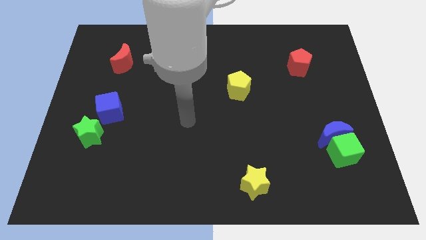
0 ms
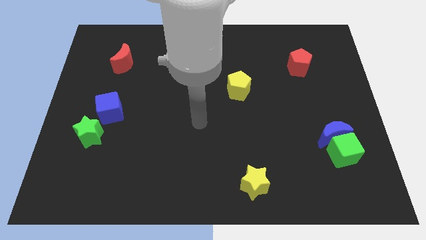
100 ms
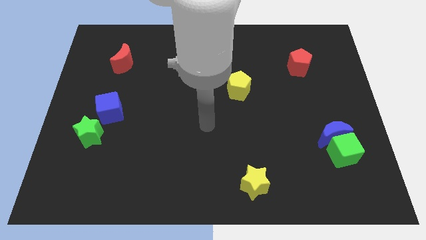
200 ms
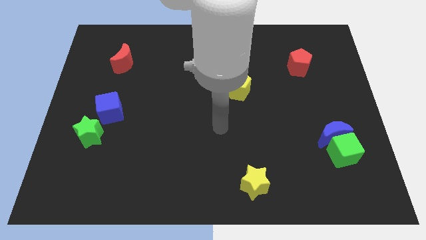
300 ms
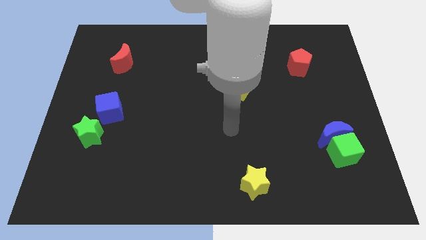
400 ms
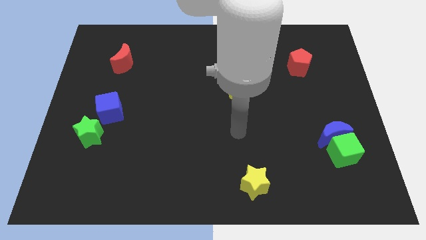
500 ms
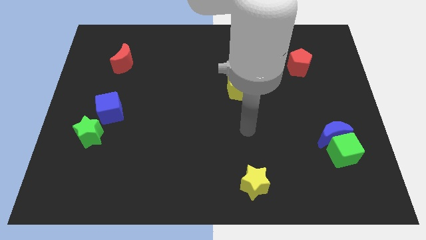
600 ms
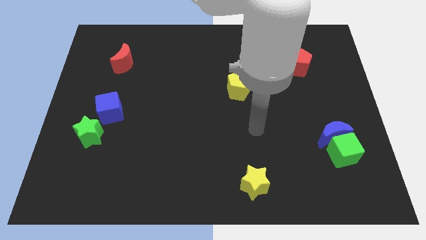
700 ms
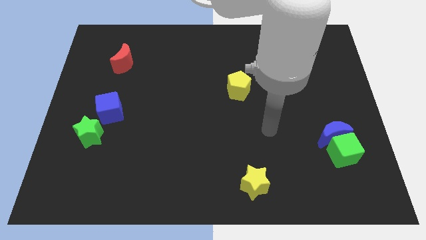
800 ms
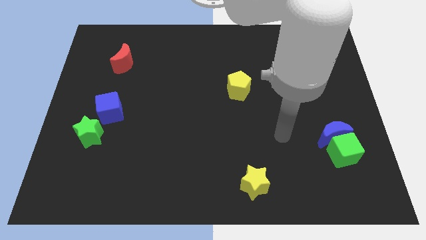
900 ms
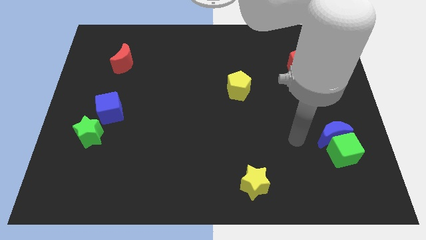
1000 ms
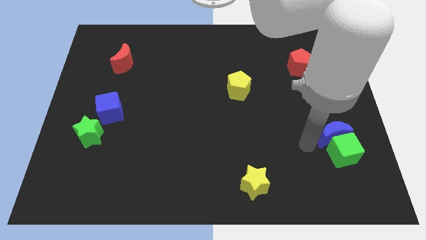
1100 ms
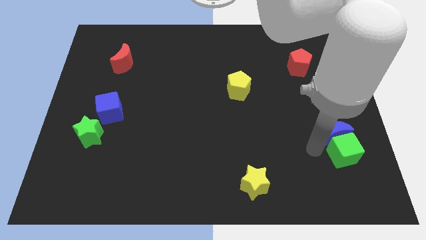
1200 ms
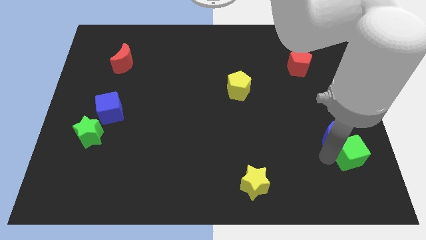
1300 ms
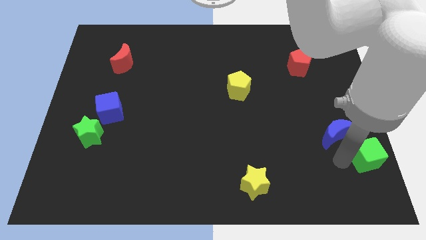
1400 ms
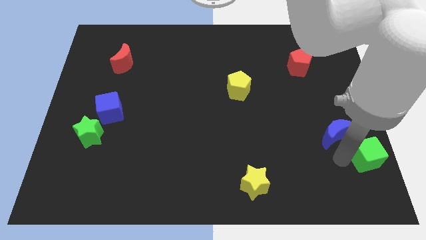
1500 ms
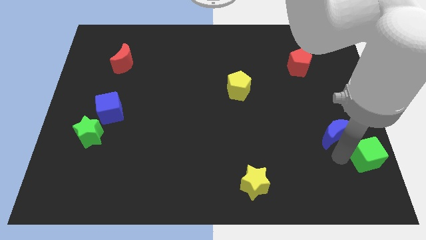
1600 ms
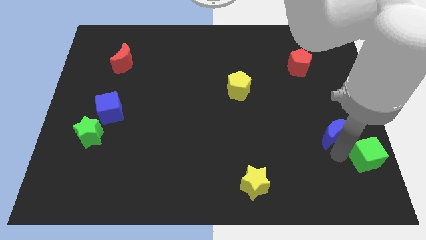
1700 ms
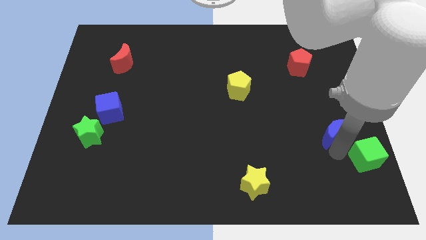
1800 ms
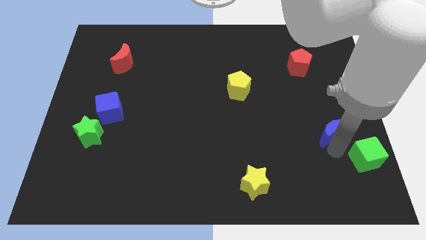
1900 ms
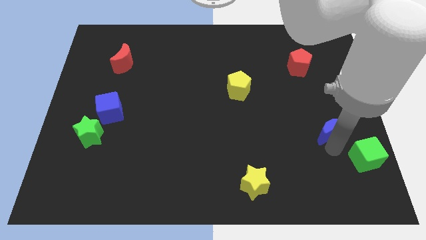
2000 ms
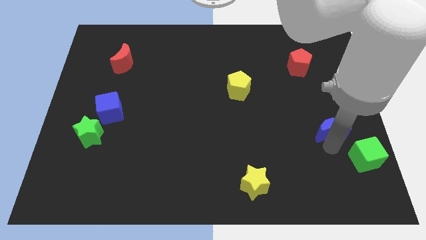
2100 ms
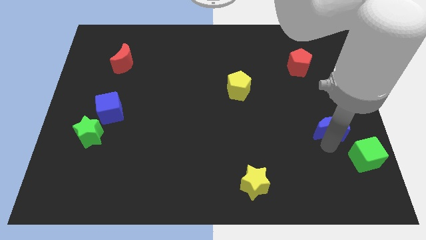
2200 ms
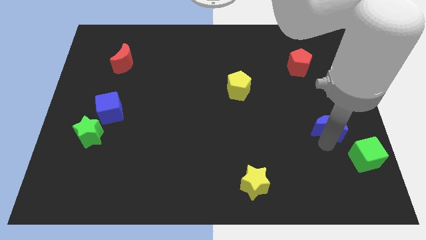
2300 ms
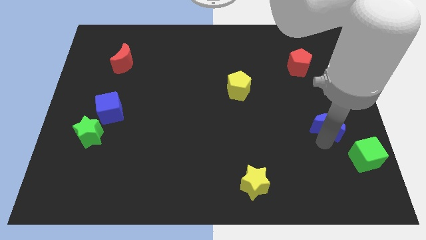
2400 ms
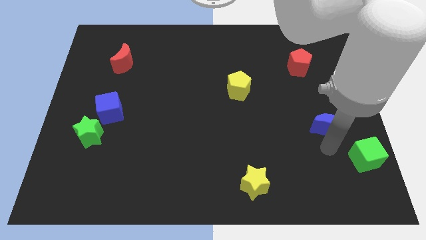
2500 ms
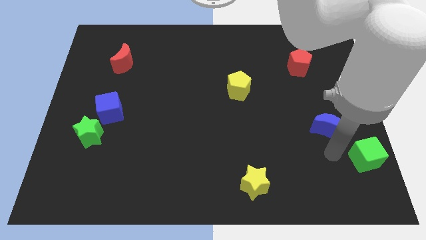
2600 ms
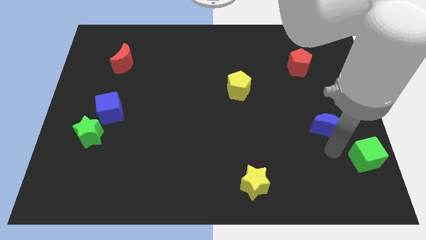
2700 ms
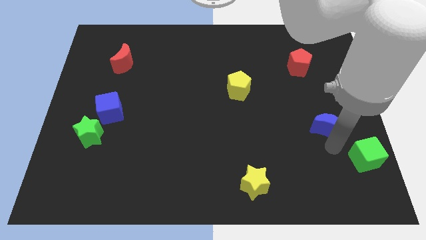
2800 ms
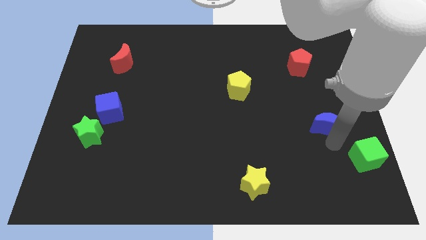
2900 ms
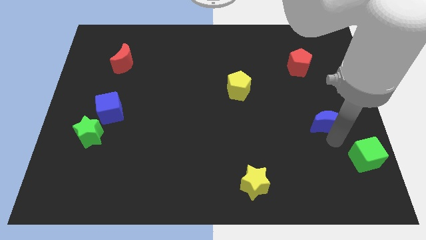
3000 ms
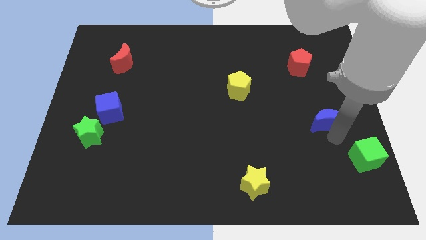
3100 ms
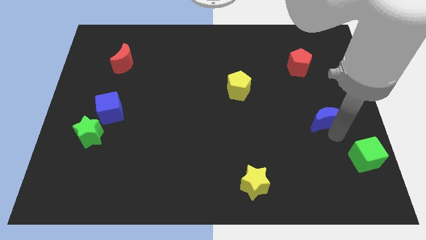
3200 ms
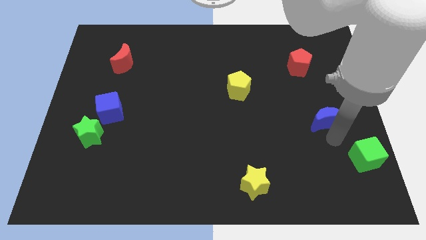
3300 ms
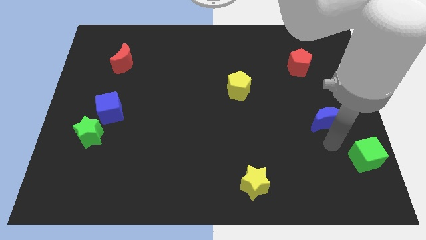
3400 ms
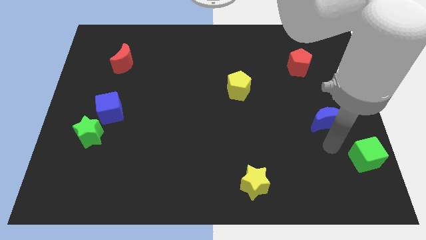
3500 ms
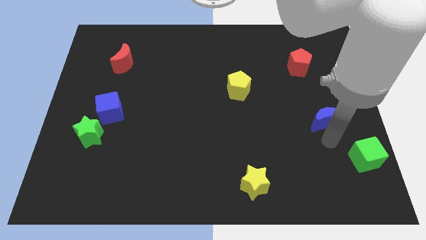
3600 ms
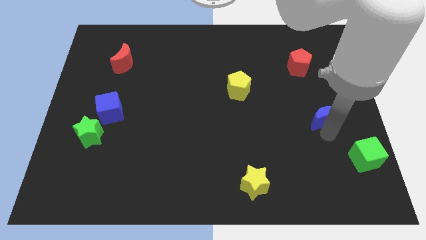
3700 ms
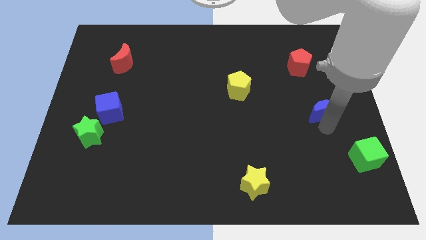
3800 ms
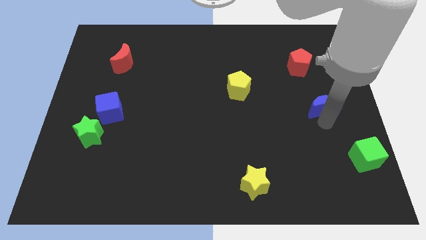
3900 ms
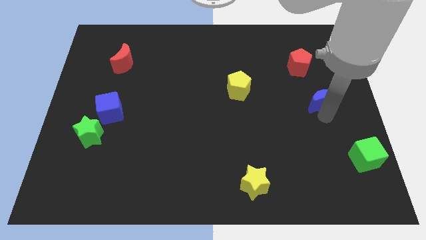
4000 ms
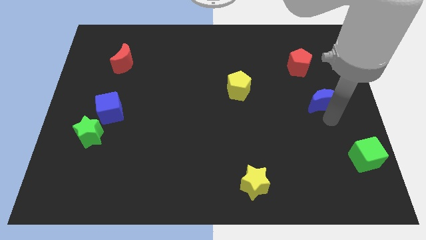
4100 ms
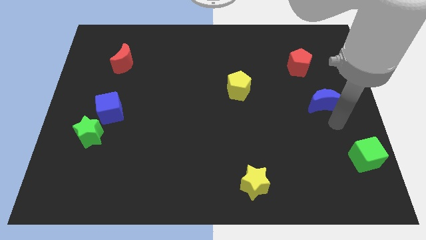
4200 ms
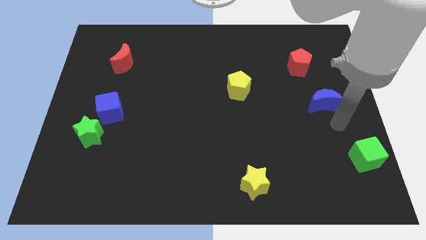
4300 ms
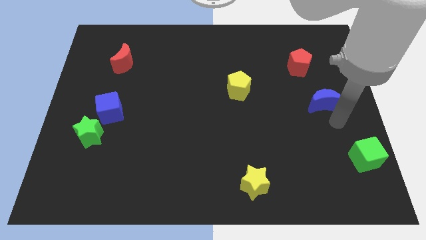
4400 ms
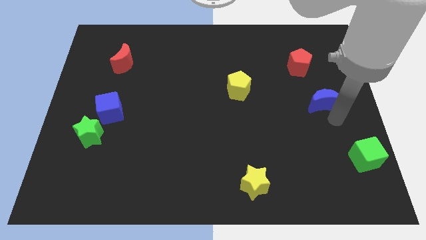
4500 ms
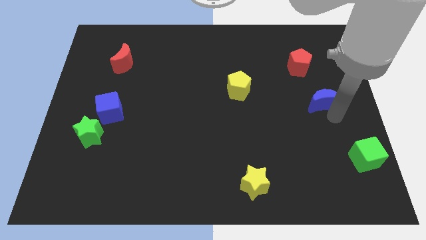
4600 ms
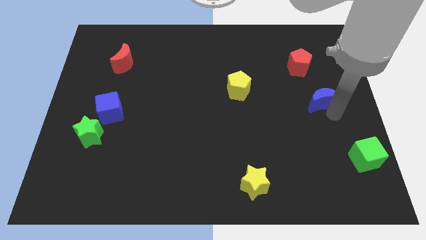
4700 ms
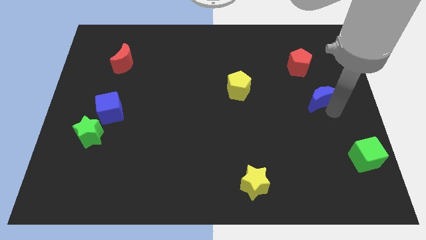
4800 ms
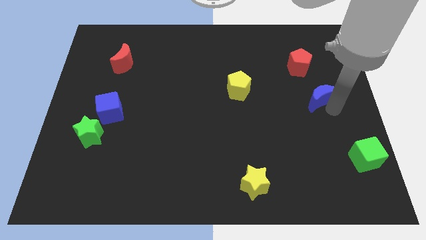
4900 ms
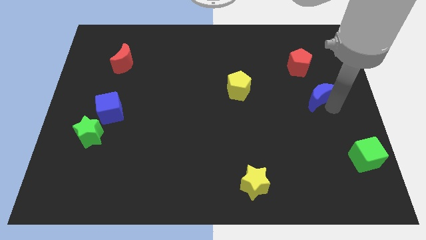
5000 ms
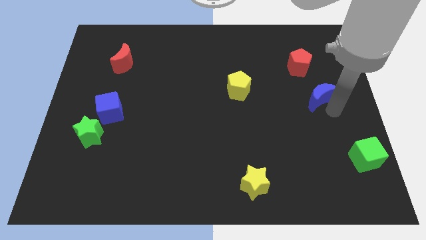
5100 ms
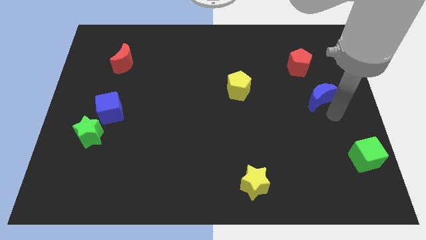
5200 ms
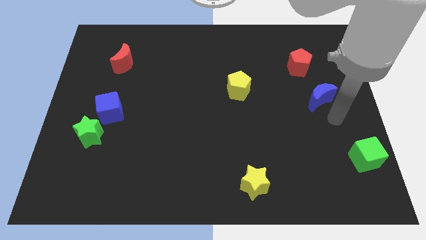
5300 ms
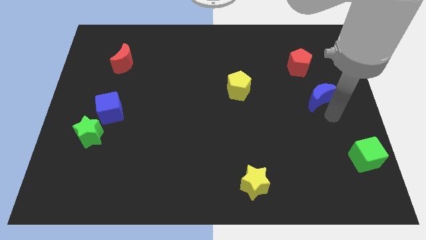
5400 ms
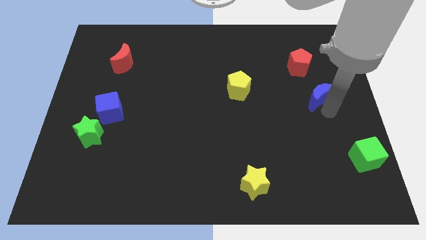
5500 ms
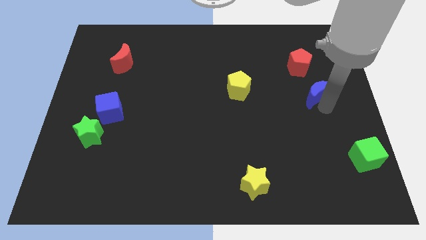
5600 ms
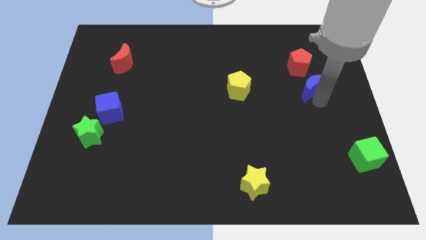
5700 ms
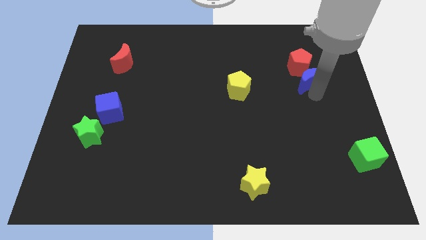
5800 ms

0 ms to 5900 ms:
push the blue moon close to the red pentagon

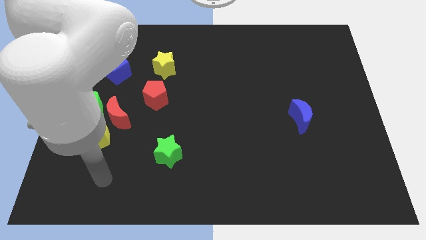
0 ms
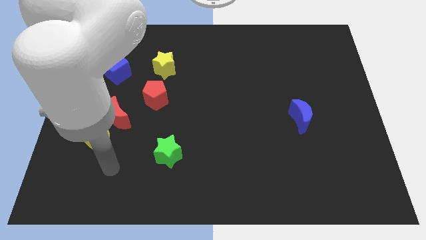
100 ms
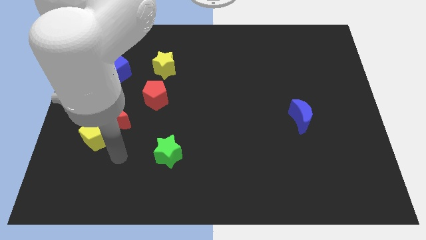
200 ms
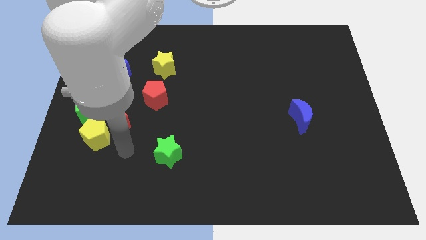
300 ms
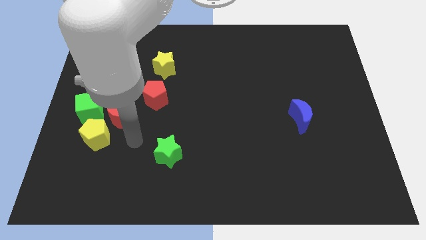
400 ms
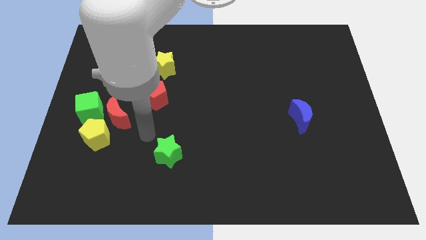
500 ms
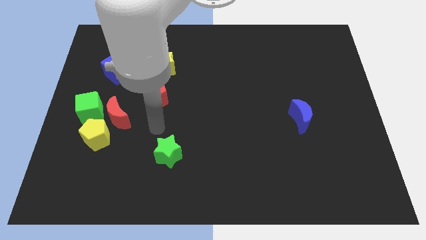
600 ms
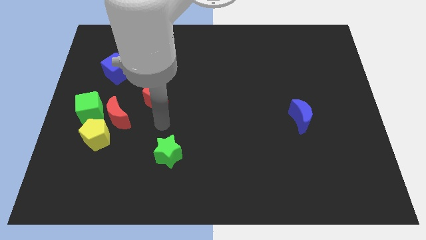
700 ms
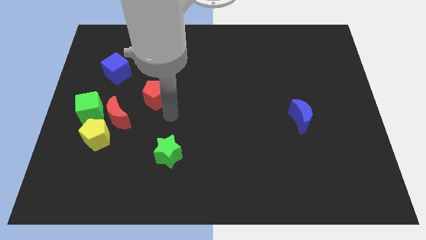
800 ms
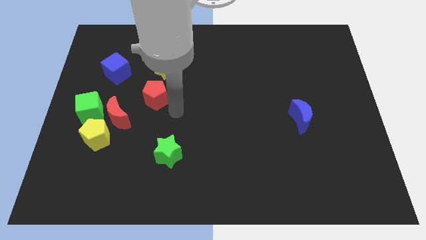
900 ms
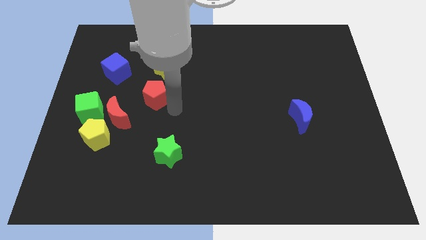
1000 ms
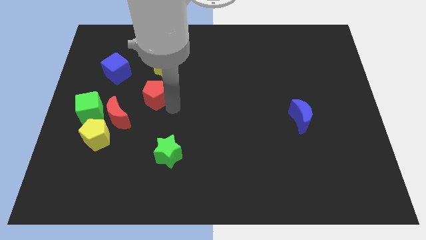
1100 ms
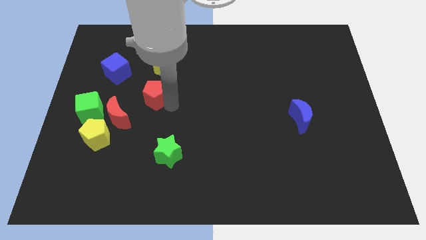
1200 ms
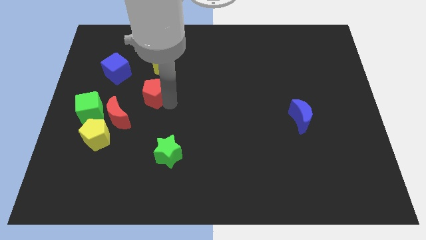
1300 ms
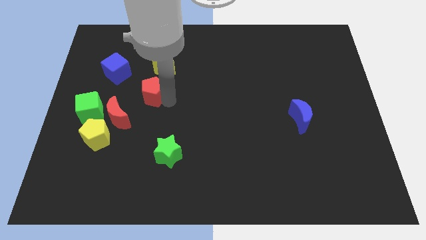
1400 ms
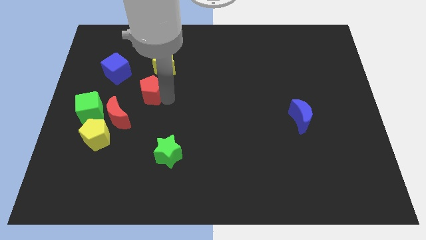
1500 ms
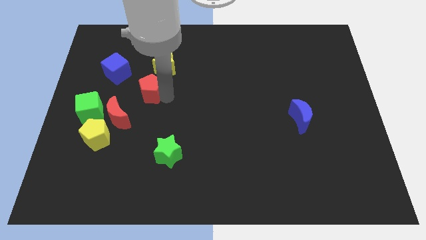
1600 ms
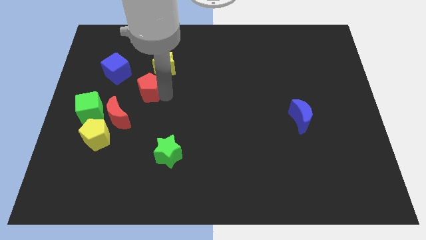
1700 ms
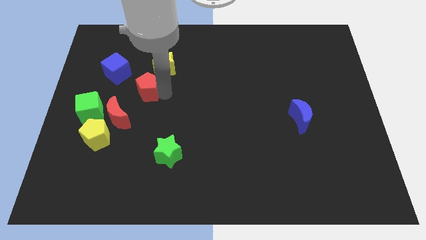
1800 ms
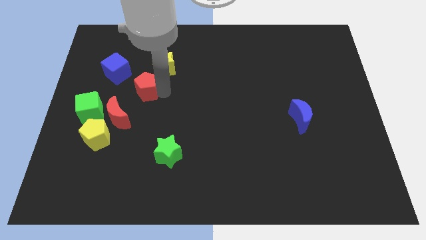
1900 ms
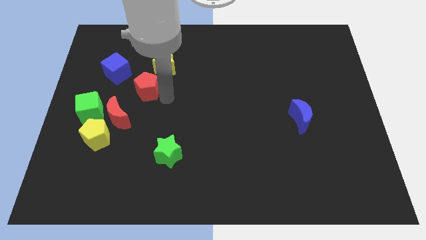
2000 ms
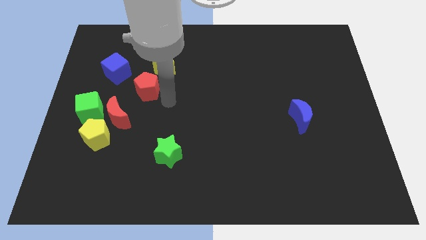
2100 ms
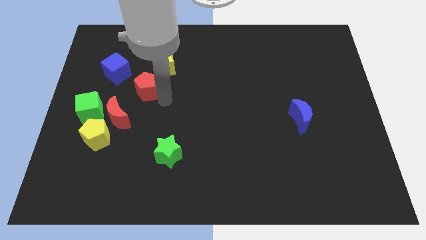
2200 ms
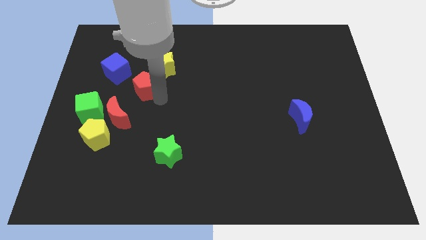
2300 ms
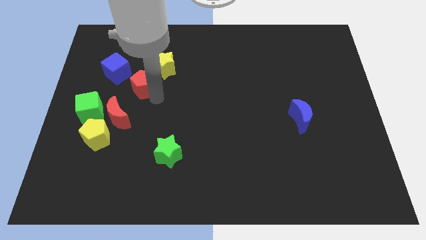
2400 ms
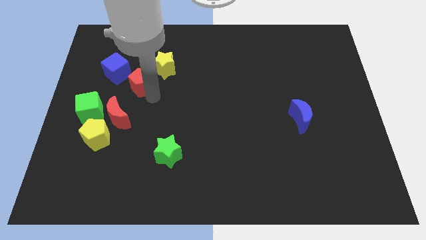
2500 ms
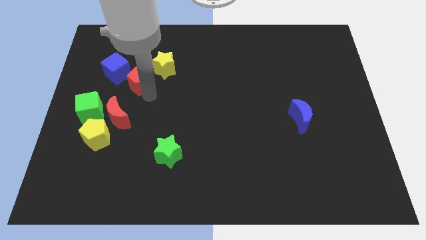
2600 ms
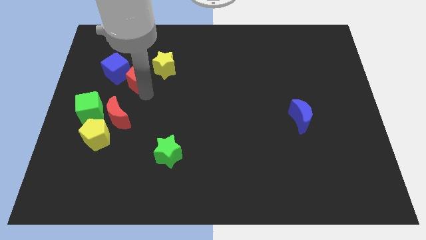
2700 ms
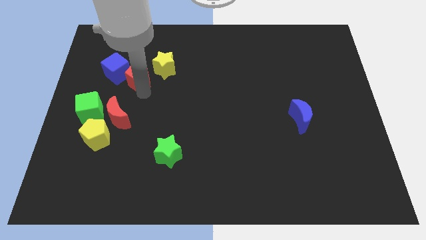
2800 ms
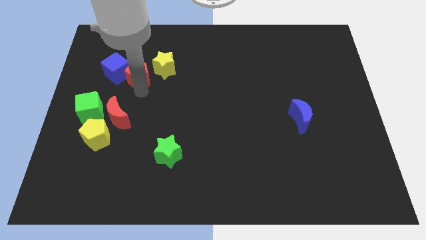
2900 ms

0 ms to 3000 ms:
push the red pentagon towards the blue cube
